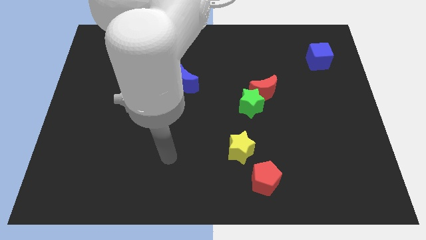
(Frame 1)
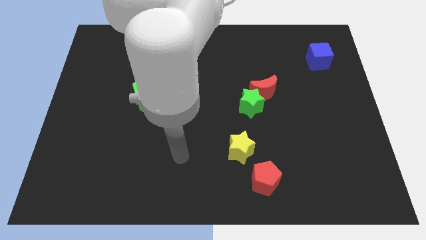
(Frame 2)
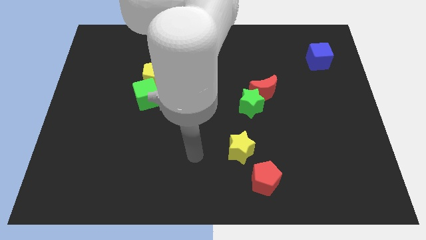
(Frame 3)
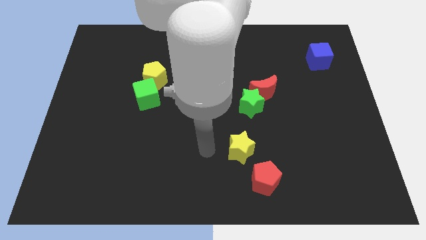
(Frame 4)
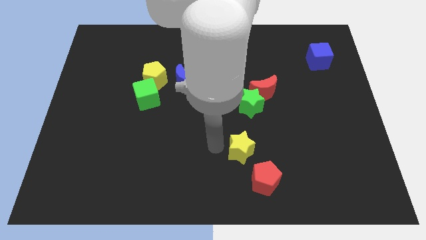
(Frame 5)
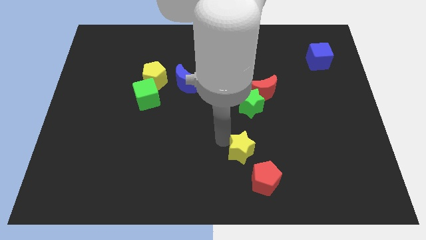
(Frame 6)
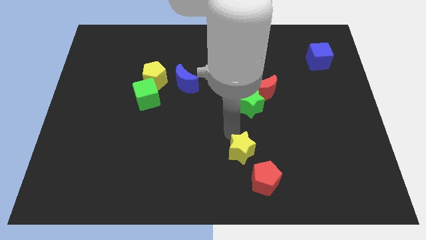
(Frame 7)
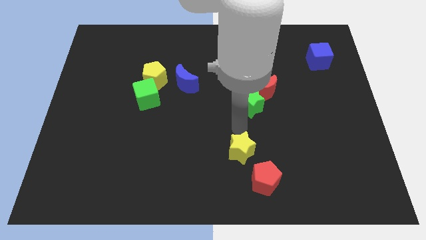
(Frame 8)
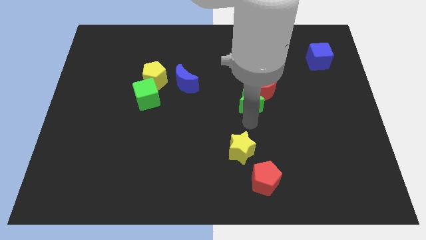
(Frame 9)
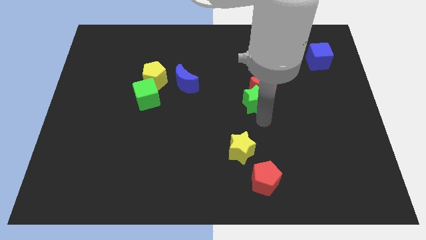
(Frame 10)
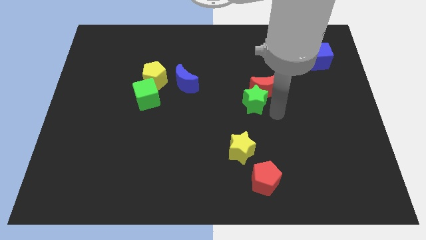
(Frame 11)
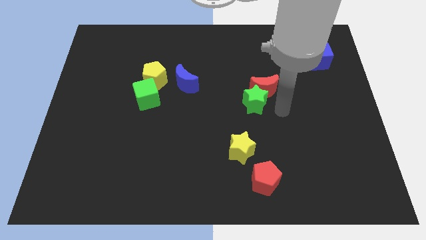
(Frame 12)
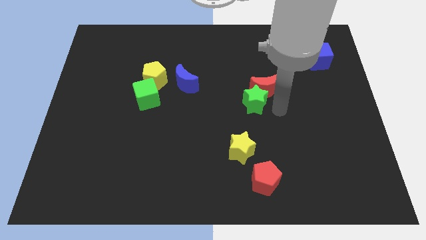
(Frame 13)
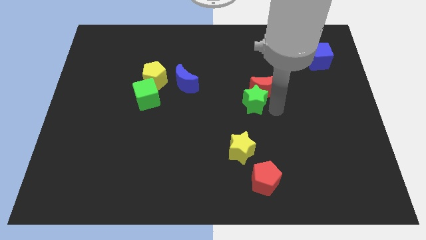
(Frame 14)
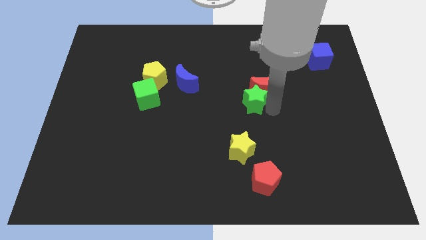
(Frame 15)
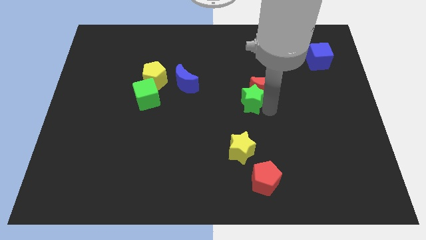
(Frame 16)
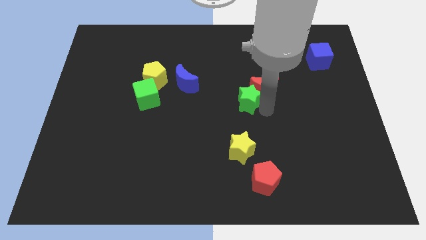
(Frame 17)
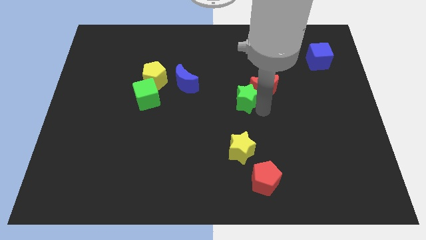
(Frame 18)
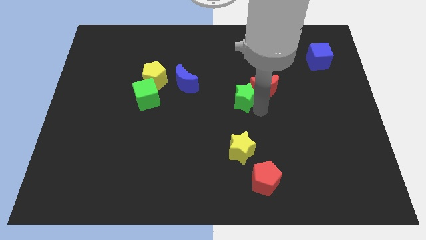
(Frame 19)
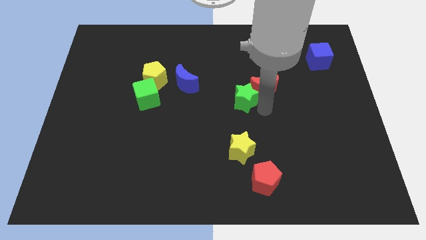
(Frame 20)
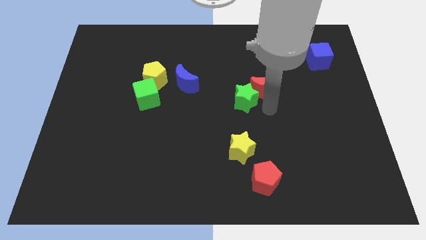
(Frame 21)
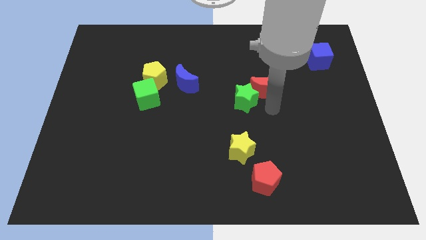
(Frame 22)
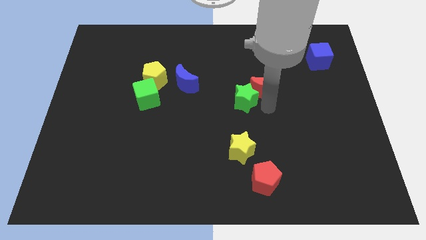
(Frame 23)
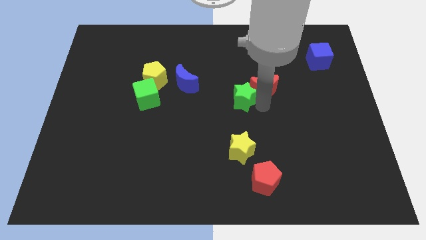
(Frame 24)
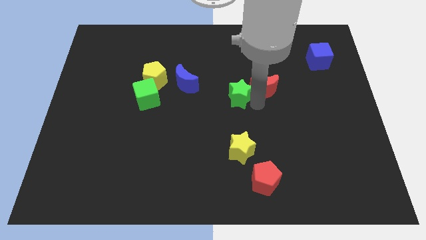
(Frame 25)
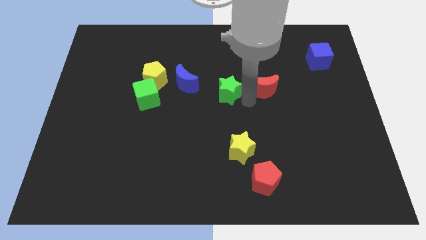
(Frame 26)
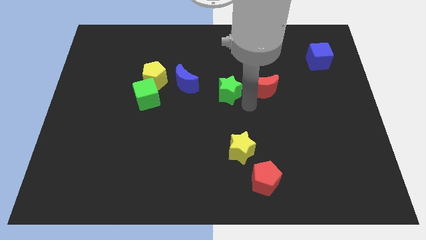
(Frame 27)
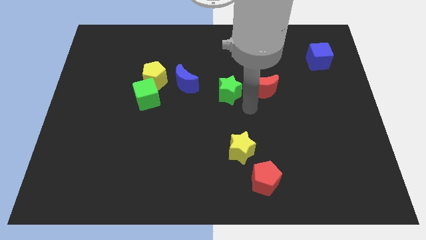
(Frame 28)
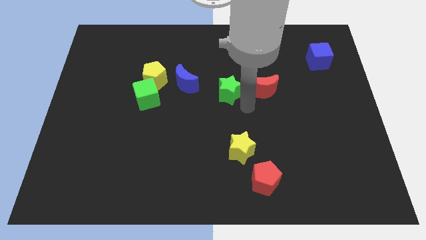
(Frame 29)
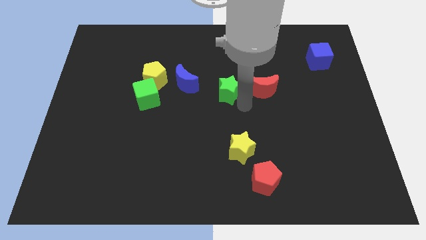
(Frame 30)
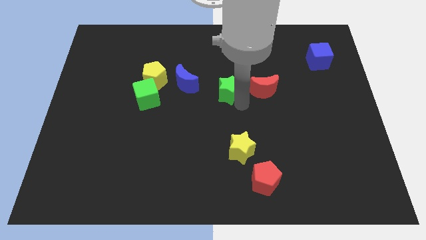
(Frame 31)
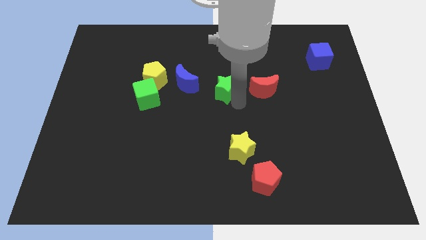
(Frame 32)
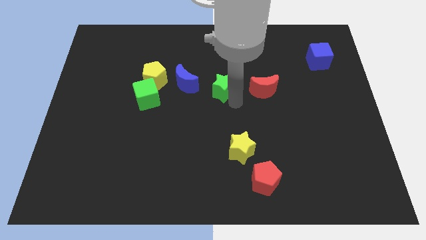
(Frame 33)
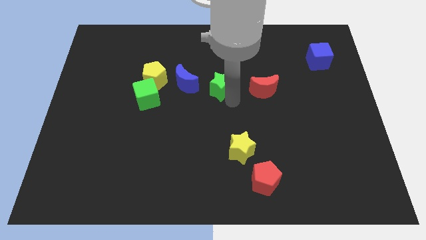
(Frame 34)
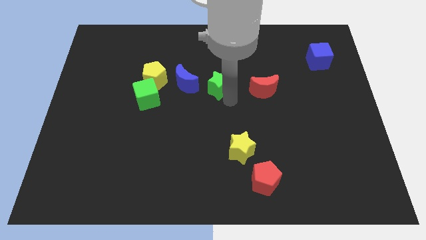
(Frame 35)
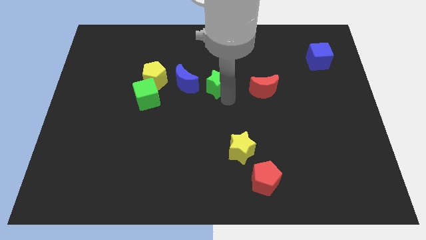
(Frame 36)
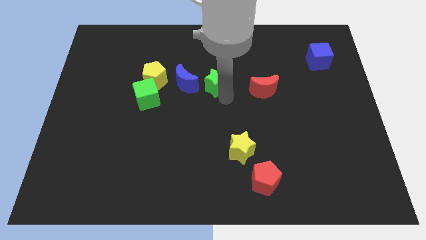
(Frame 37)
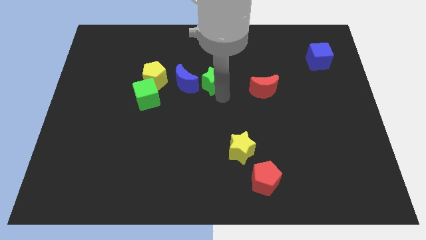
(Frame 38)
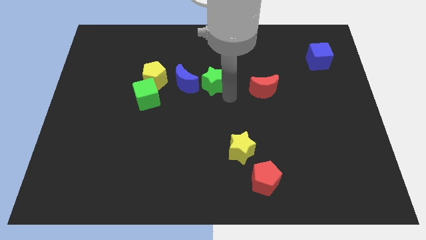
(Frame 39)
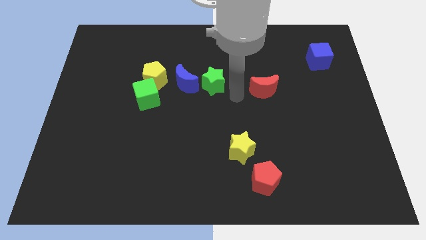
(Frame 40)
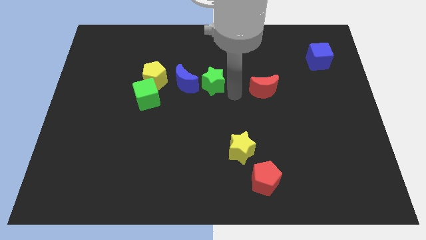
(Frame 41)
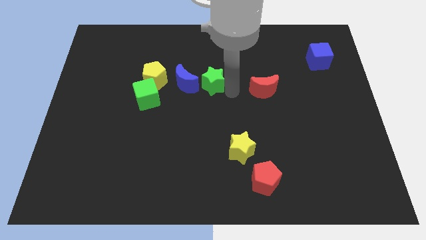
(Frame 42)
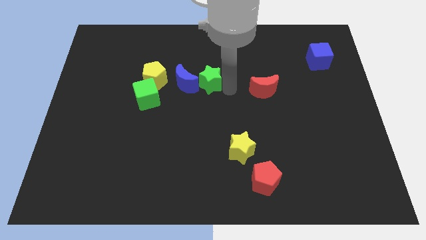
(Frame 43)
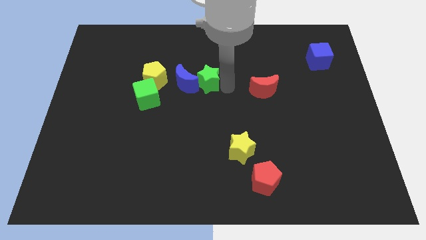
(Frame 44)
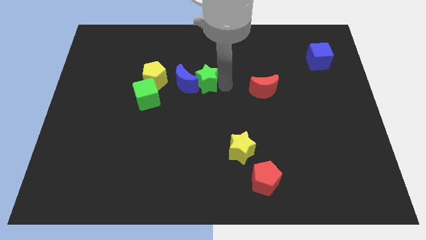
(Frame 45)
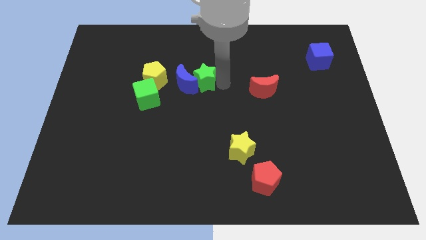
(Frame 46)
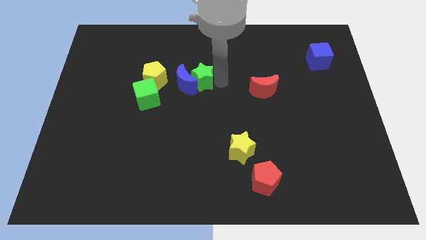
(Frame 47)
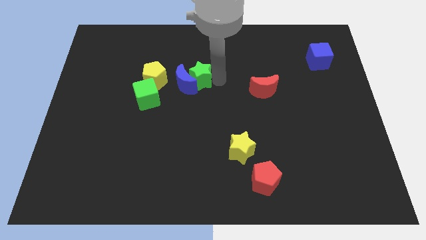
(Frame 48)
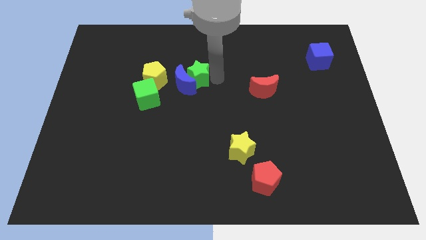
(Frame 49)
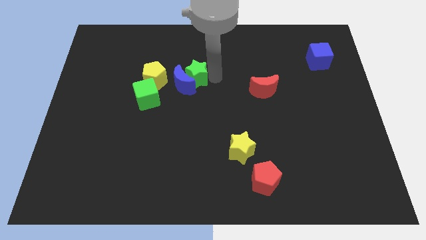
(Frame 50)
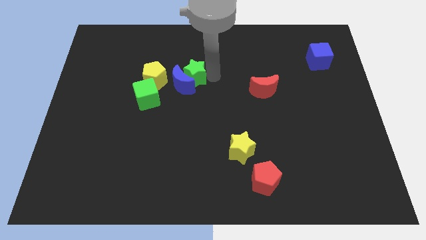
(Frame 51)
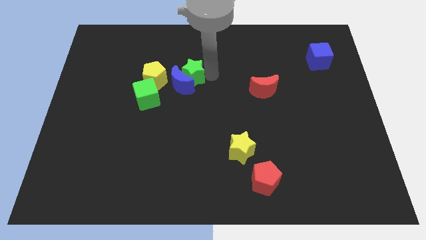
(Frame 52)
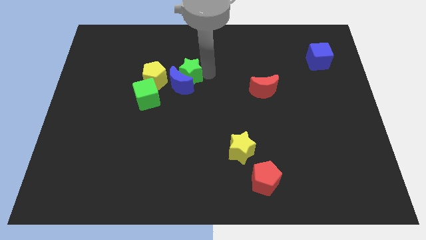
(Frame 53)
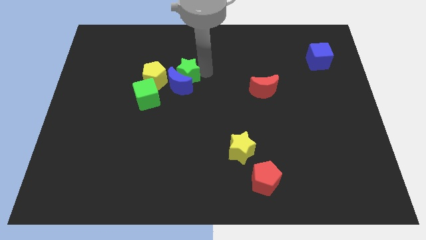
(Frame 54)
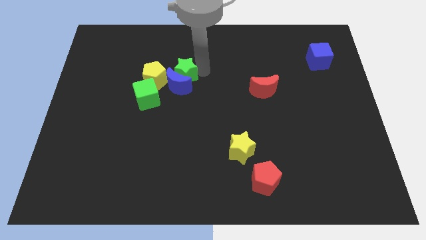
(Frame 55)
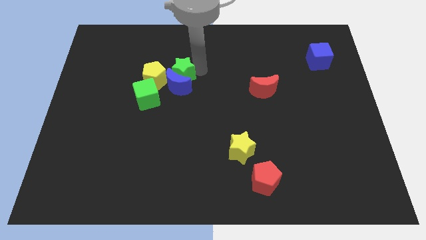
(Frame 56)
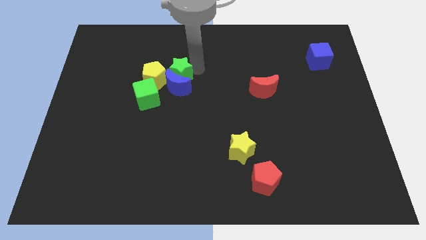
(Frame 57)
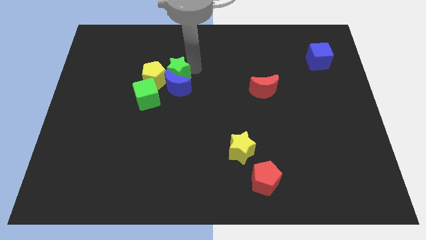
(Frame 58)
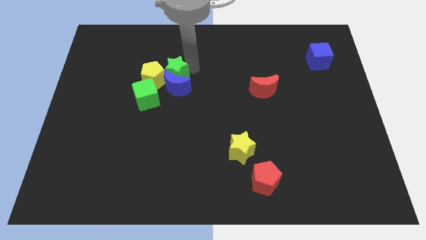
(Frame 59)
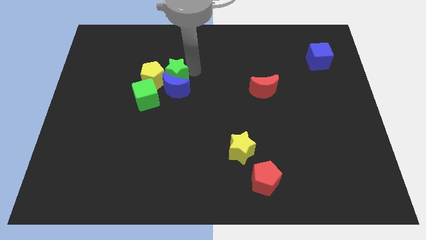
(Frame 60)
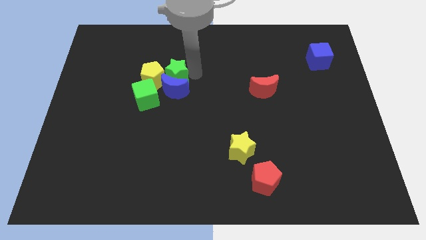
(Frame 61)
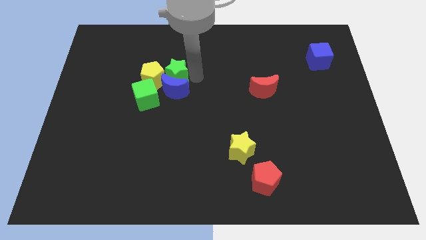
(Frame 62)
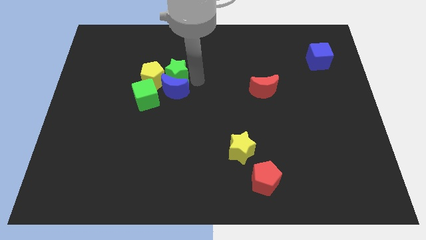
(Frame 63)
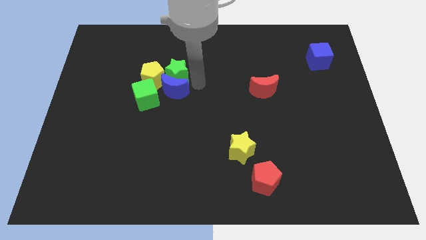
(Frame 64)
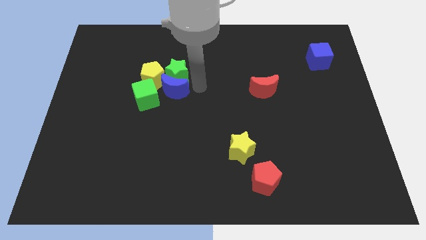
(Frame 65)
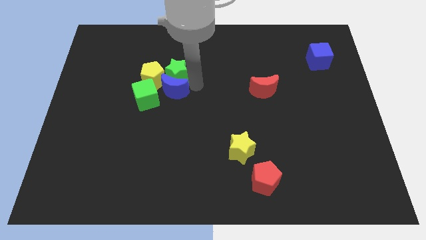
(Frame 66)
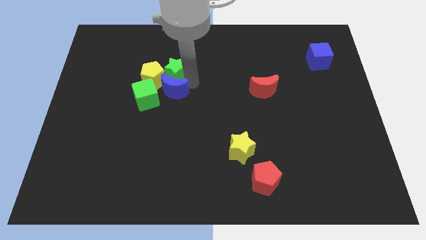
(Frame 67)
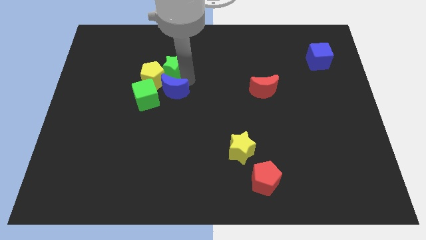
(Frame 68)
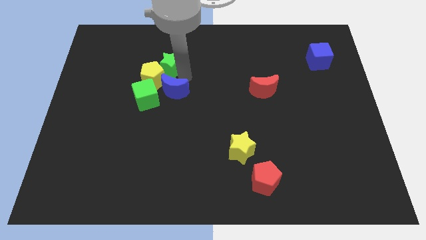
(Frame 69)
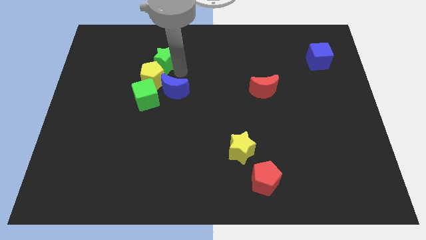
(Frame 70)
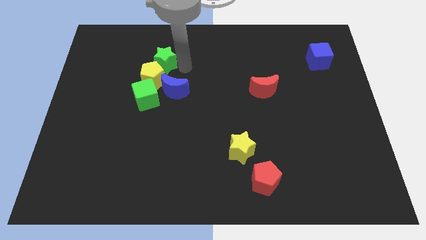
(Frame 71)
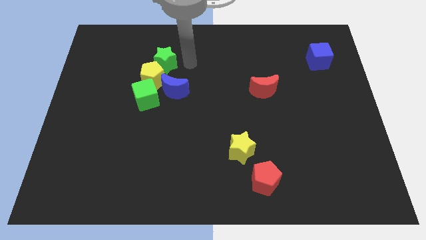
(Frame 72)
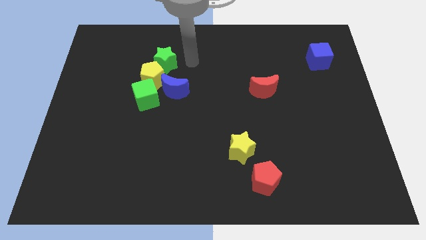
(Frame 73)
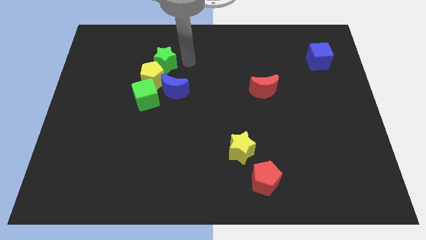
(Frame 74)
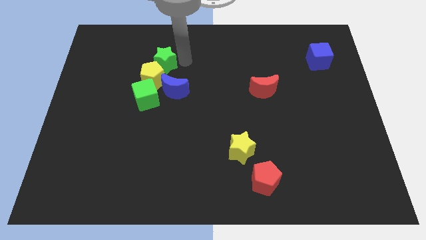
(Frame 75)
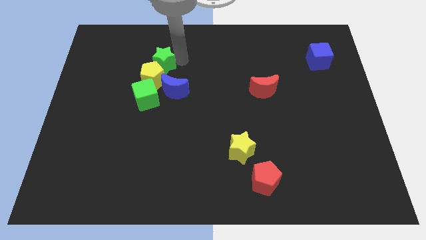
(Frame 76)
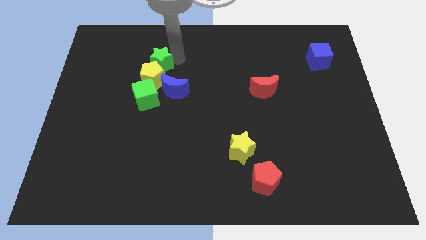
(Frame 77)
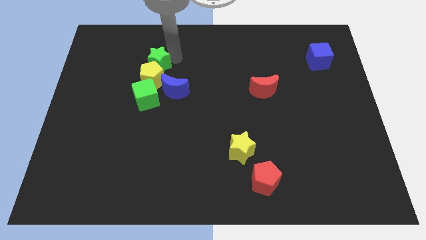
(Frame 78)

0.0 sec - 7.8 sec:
move the green star diagonally up and to the left of the yellow pentagon
